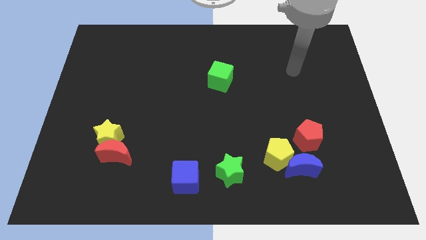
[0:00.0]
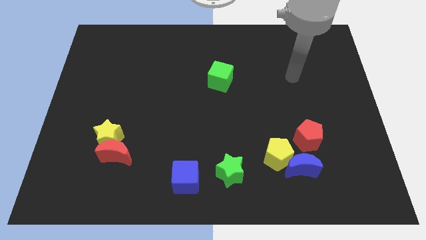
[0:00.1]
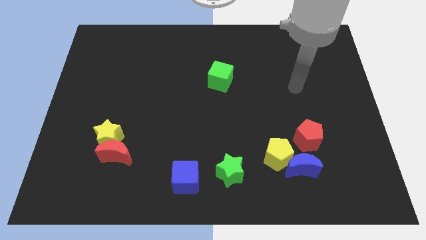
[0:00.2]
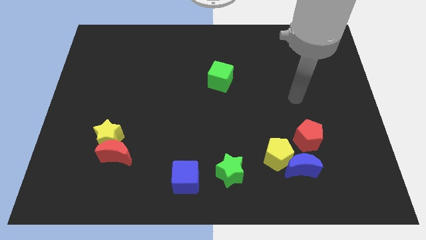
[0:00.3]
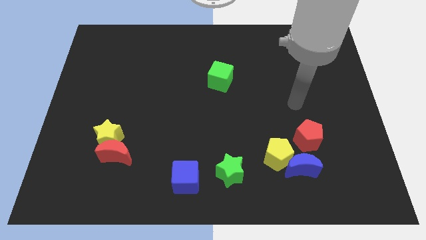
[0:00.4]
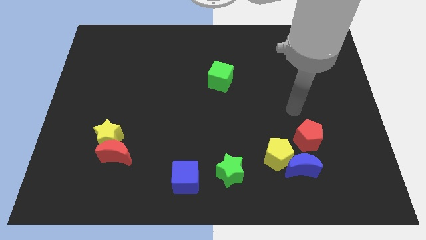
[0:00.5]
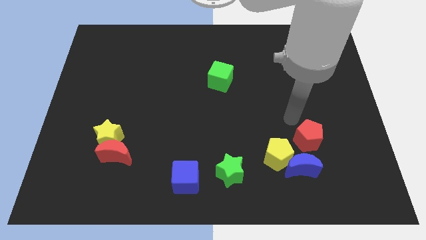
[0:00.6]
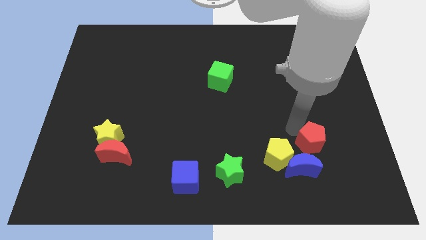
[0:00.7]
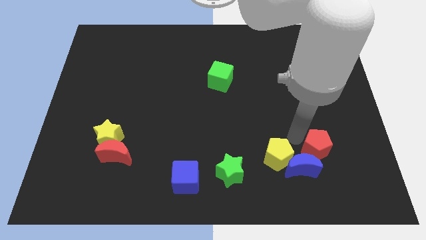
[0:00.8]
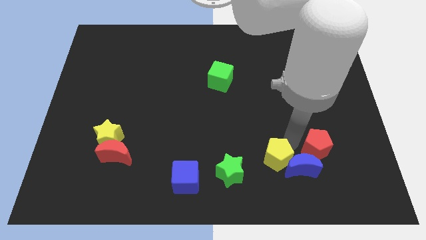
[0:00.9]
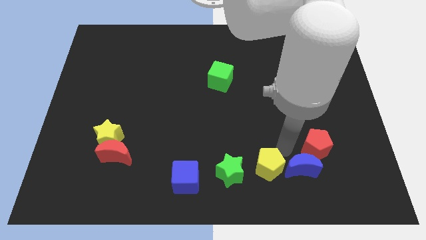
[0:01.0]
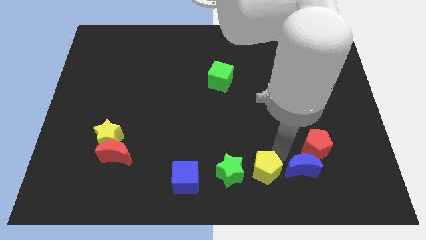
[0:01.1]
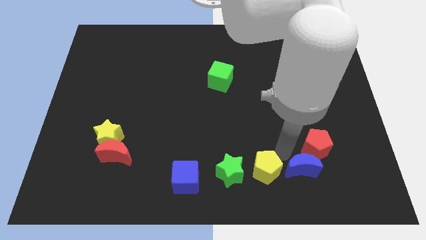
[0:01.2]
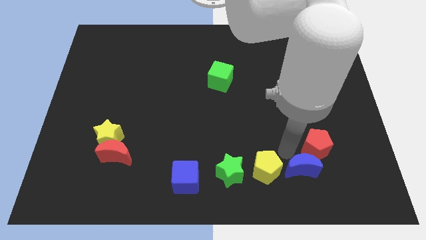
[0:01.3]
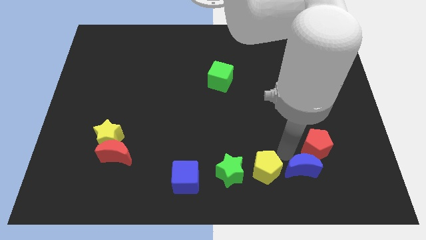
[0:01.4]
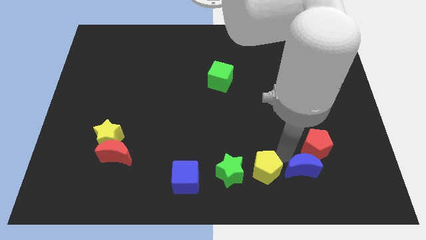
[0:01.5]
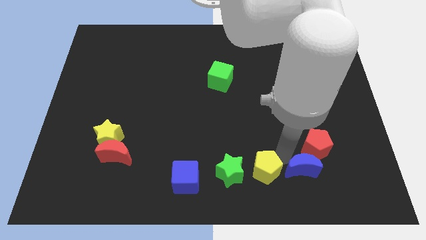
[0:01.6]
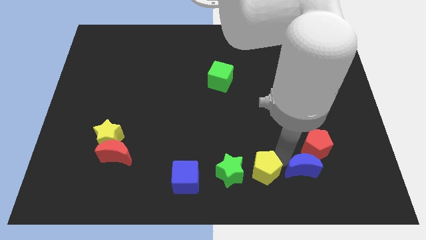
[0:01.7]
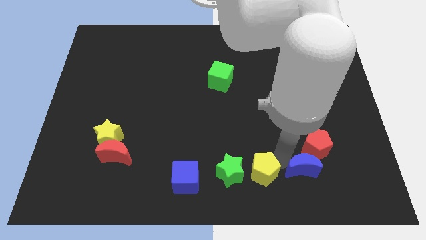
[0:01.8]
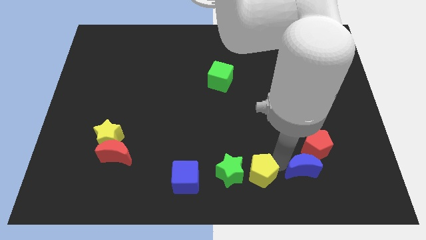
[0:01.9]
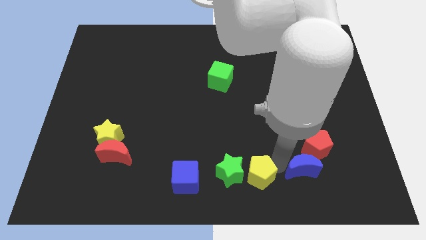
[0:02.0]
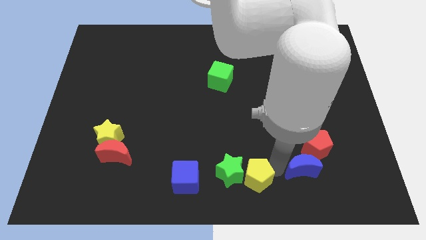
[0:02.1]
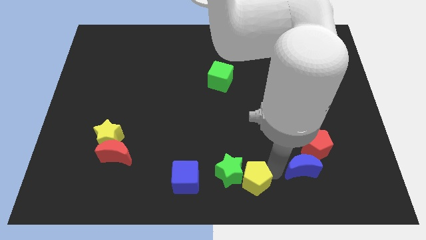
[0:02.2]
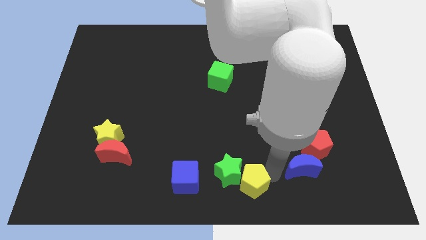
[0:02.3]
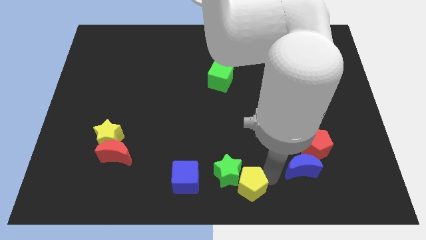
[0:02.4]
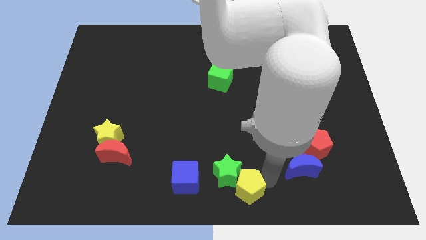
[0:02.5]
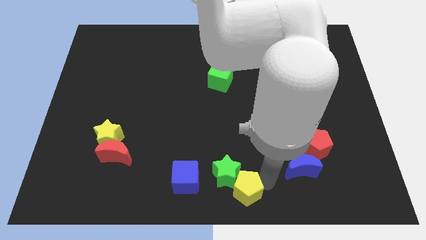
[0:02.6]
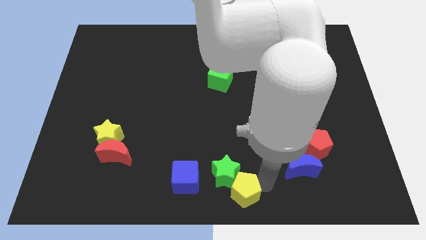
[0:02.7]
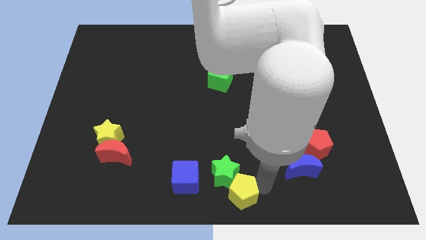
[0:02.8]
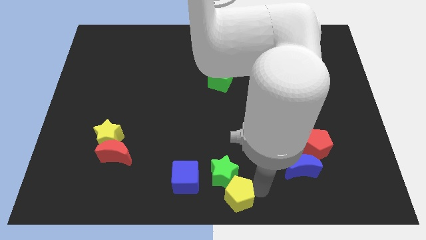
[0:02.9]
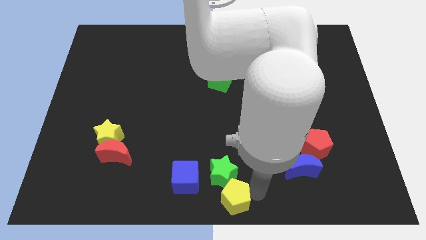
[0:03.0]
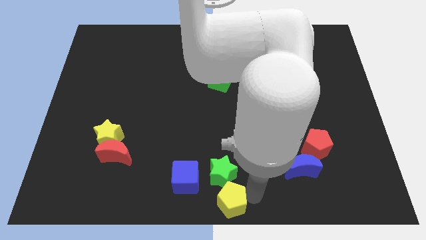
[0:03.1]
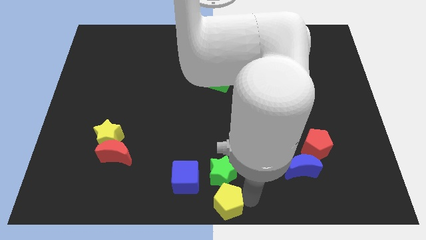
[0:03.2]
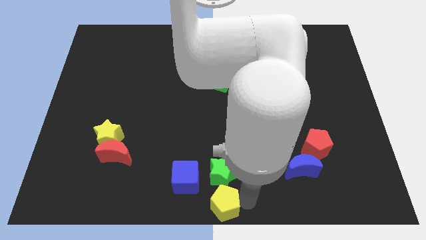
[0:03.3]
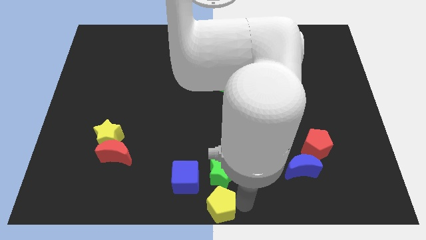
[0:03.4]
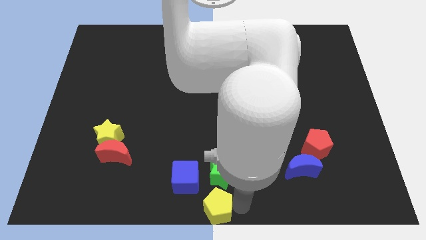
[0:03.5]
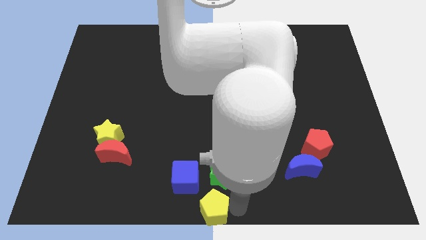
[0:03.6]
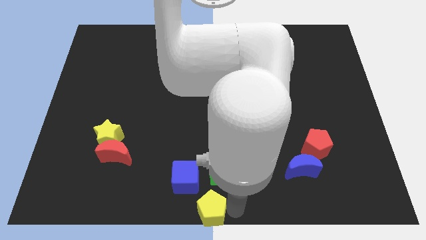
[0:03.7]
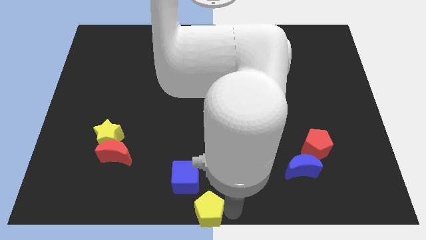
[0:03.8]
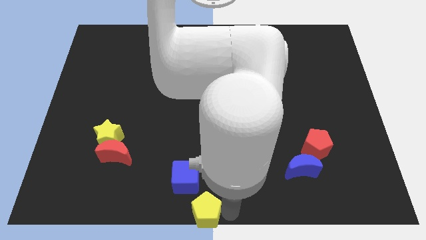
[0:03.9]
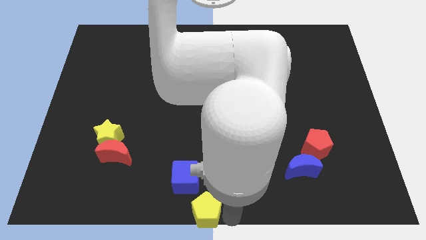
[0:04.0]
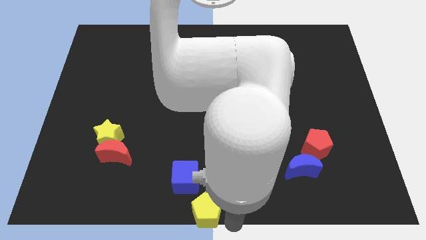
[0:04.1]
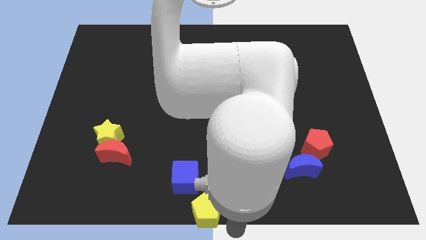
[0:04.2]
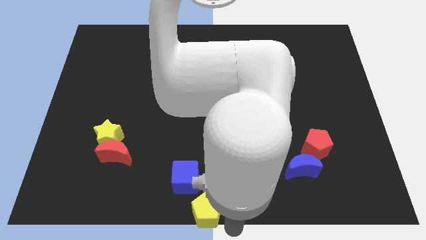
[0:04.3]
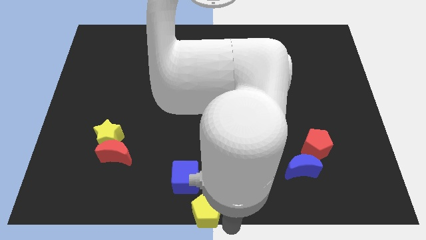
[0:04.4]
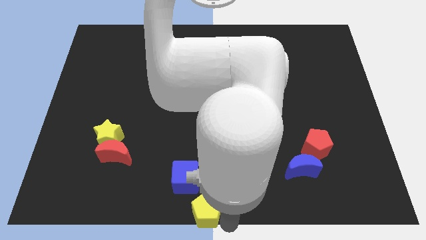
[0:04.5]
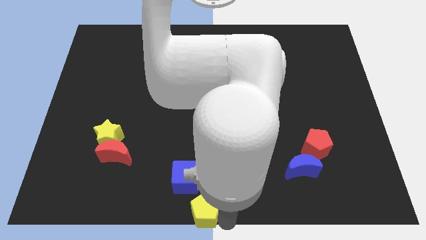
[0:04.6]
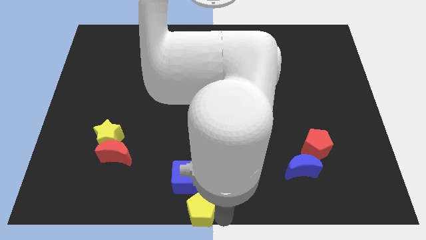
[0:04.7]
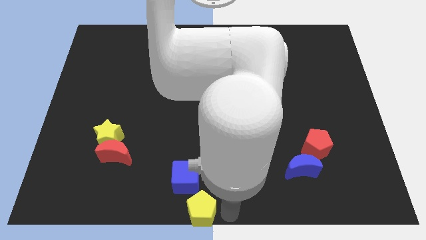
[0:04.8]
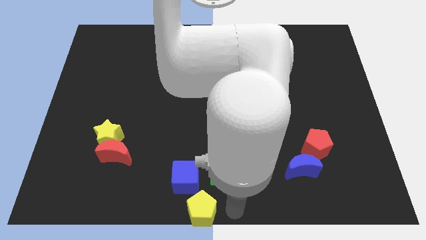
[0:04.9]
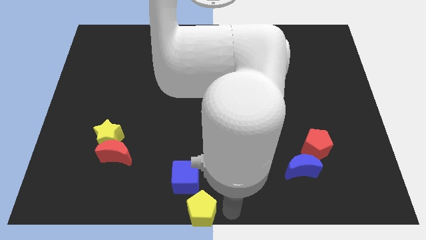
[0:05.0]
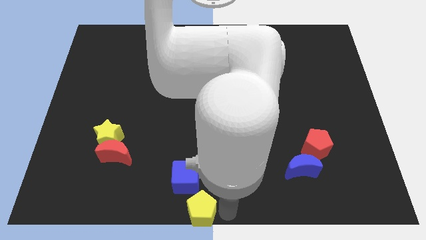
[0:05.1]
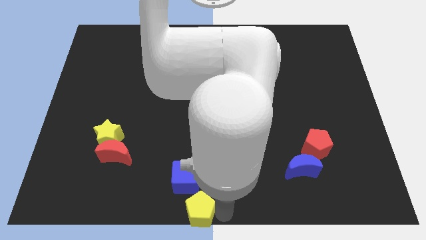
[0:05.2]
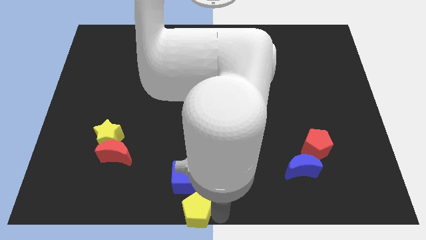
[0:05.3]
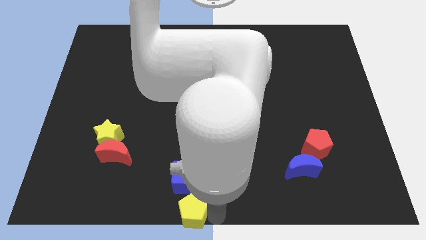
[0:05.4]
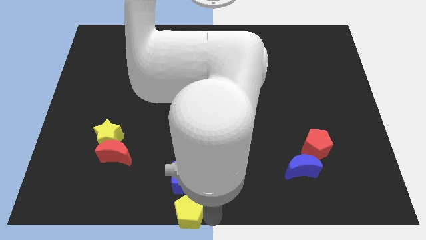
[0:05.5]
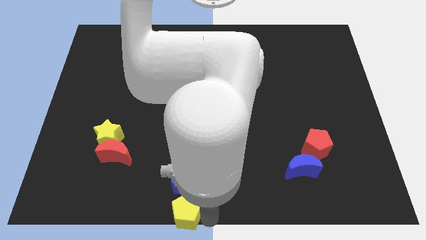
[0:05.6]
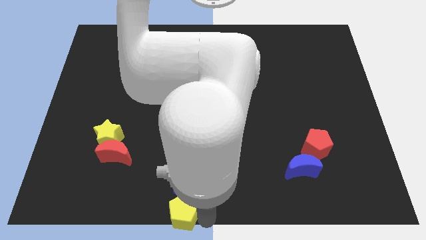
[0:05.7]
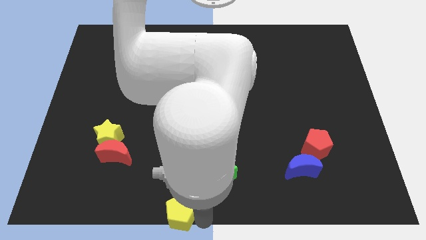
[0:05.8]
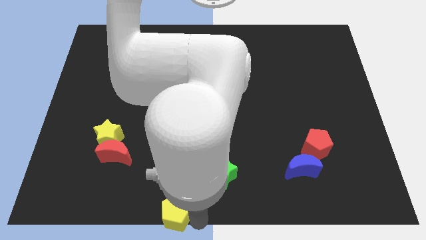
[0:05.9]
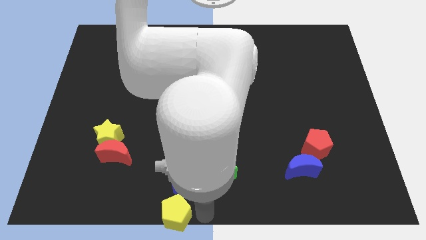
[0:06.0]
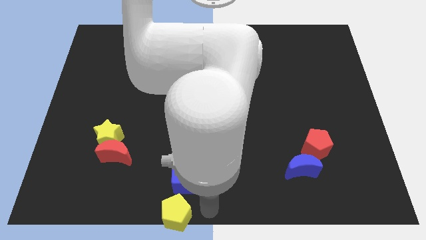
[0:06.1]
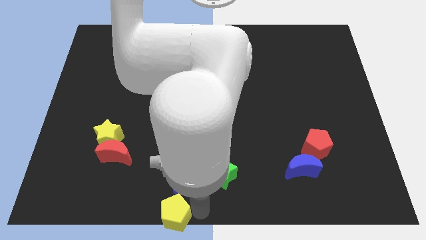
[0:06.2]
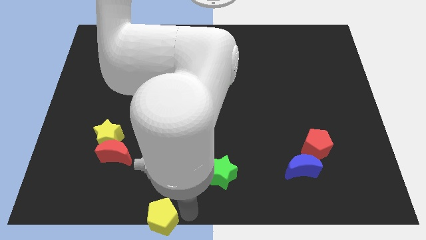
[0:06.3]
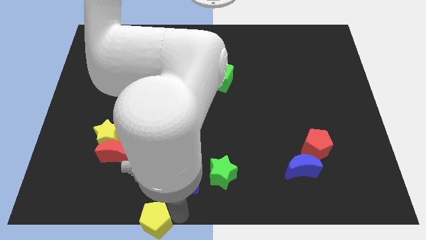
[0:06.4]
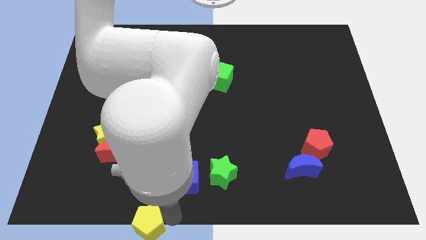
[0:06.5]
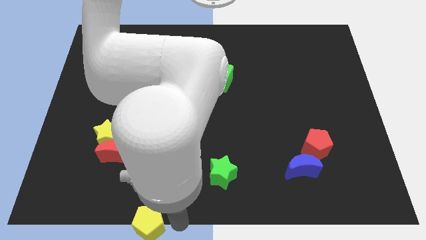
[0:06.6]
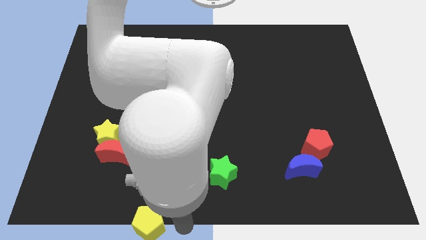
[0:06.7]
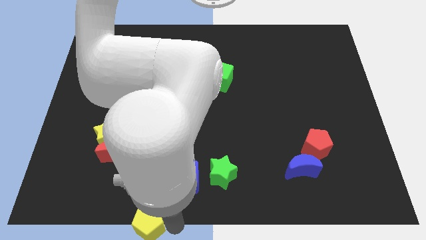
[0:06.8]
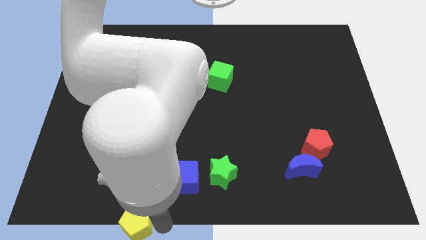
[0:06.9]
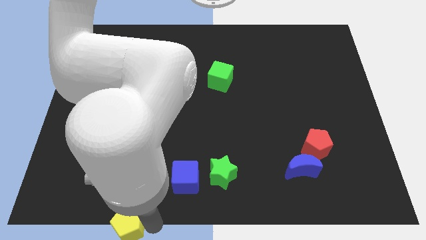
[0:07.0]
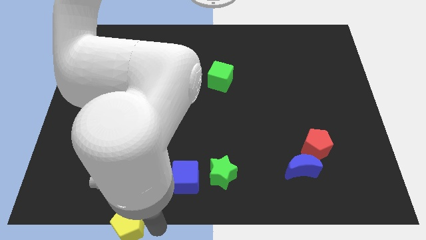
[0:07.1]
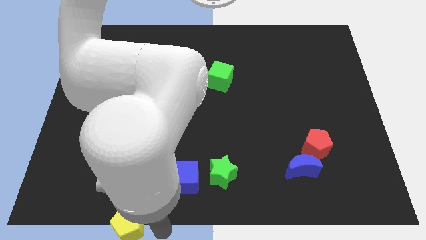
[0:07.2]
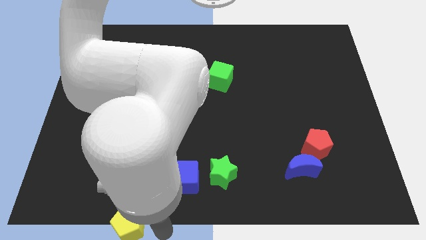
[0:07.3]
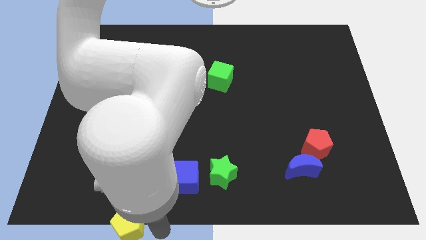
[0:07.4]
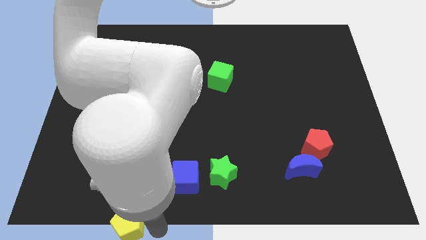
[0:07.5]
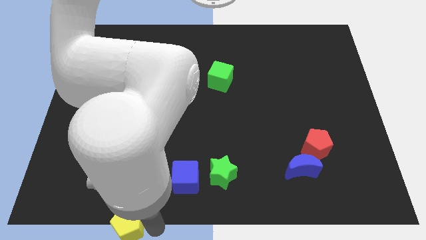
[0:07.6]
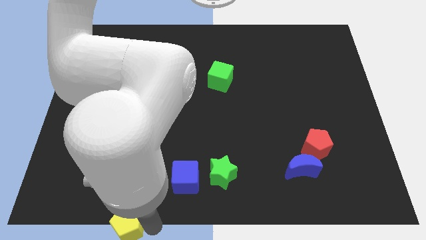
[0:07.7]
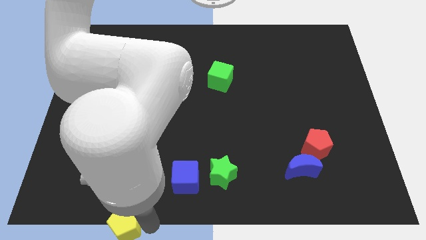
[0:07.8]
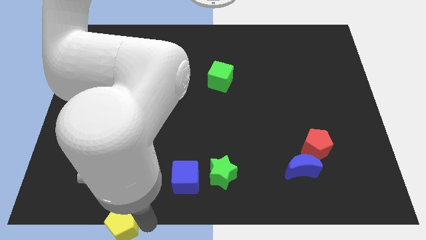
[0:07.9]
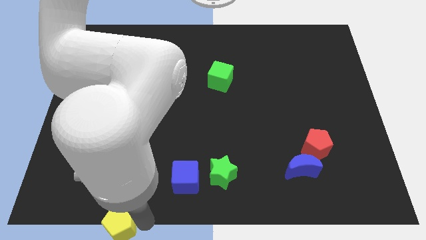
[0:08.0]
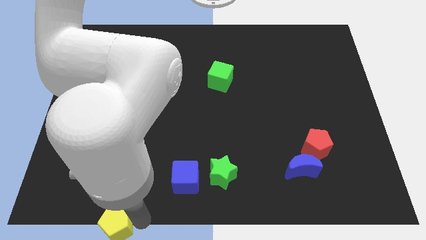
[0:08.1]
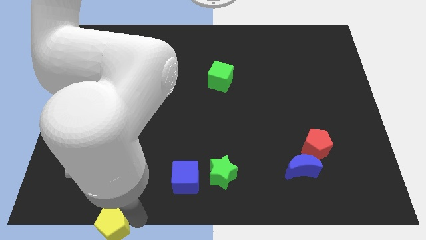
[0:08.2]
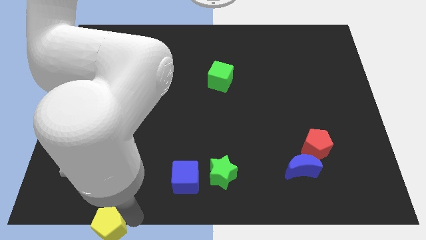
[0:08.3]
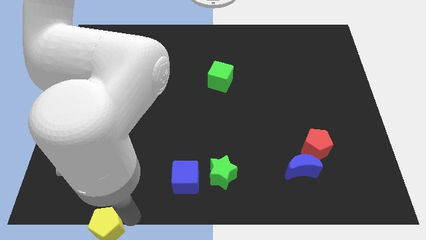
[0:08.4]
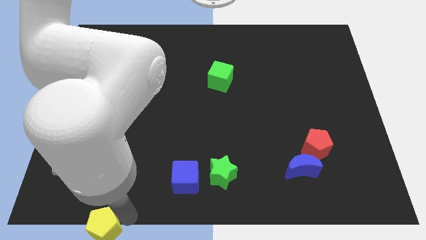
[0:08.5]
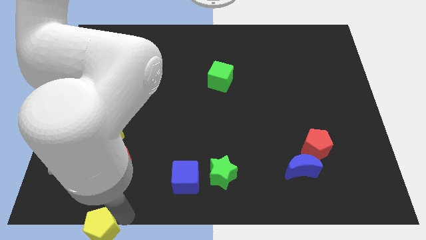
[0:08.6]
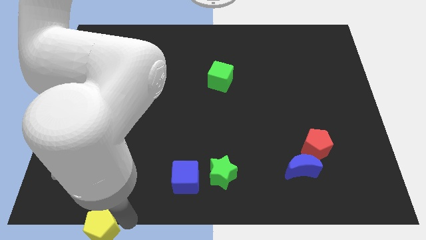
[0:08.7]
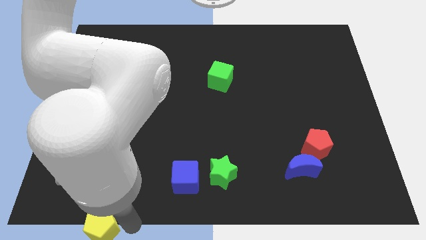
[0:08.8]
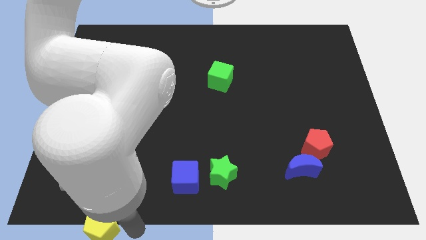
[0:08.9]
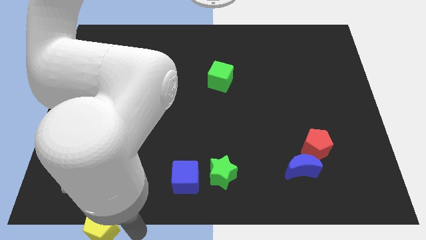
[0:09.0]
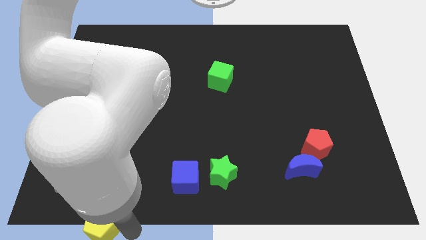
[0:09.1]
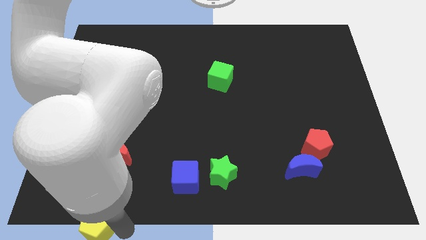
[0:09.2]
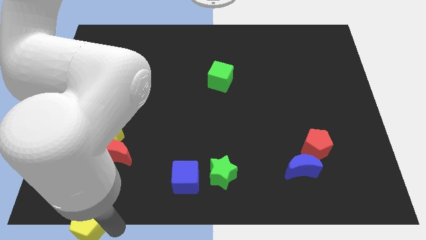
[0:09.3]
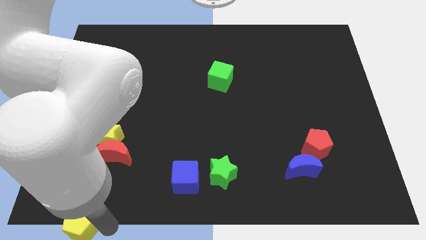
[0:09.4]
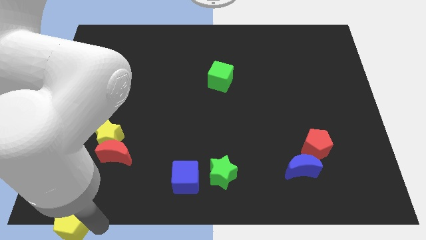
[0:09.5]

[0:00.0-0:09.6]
put the yellow pentagon to the bottom left of the board
